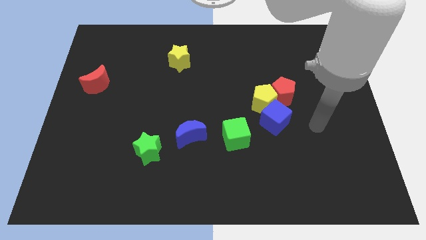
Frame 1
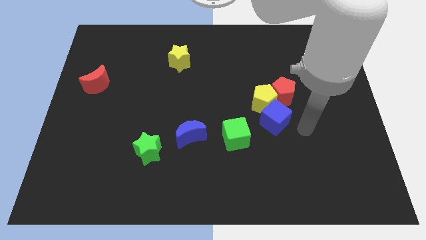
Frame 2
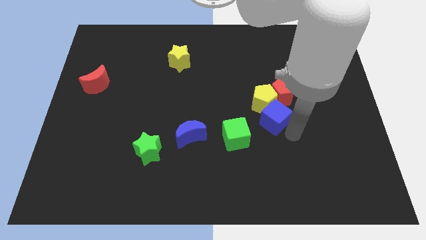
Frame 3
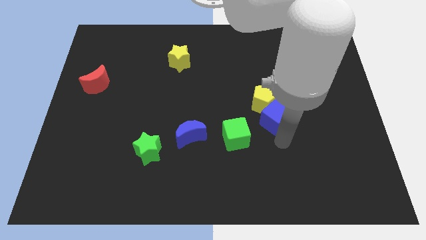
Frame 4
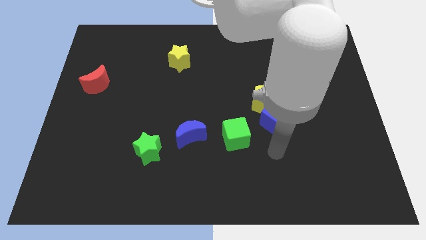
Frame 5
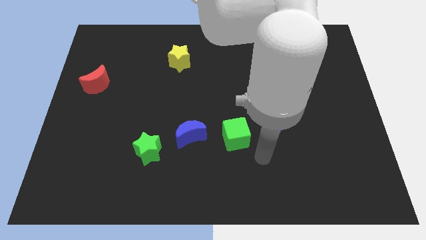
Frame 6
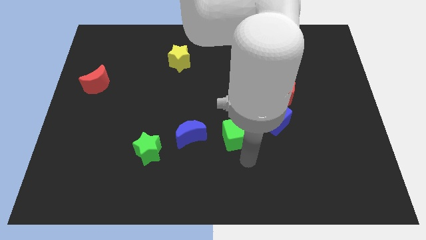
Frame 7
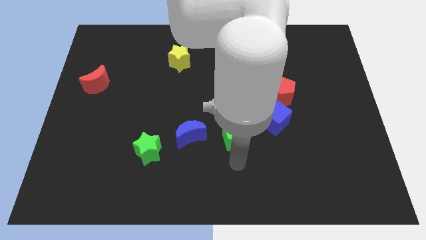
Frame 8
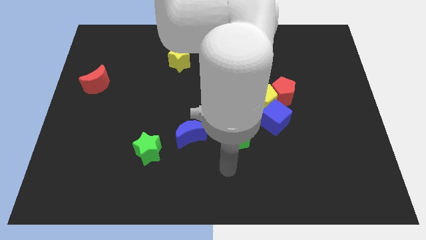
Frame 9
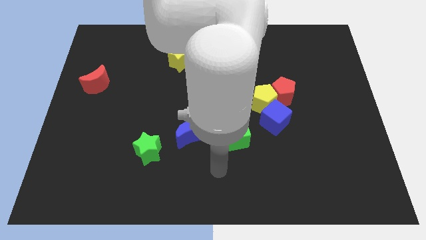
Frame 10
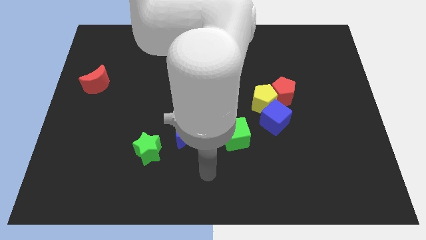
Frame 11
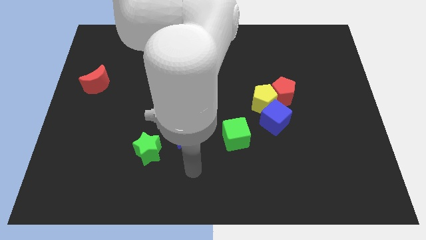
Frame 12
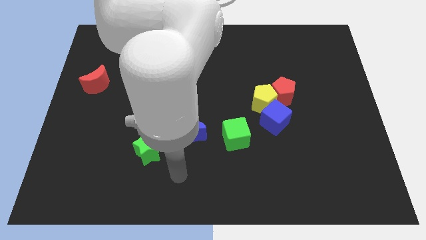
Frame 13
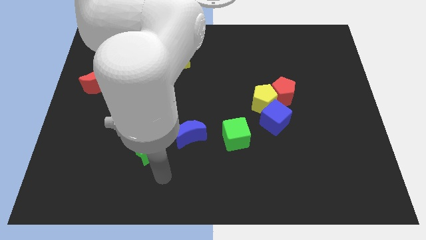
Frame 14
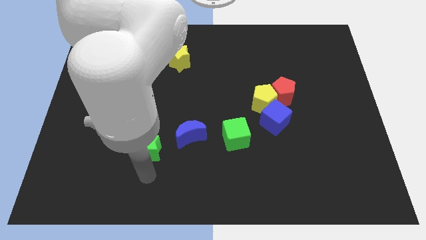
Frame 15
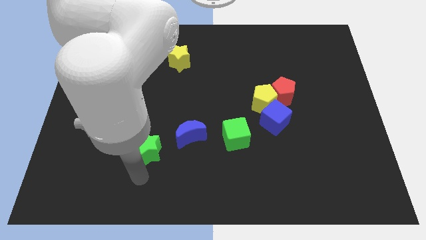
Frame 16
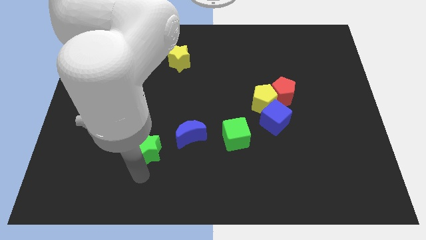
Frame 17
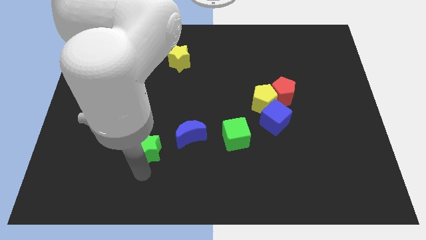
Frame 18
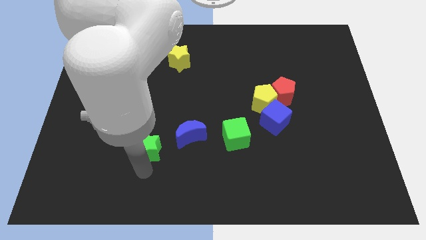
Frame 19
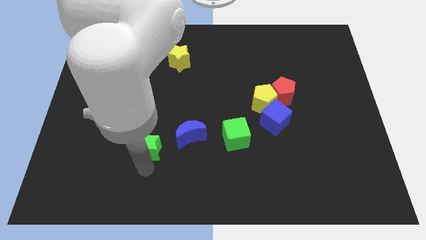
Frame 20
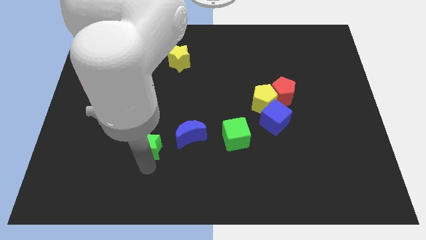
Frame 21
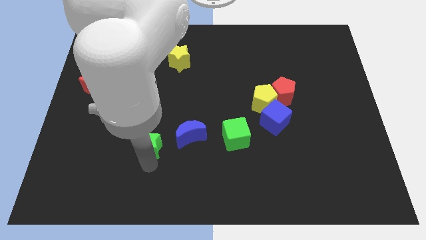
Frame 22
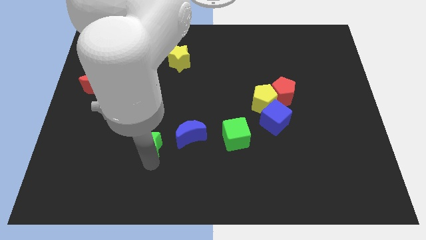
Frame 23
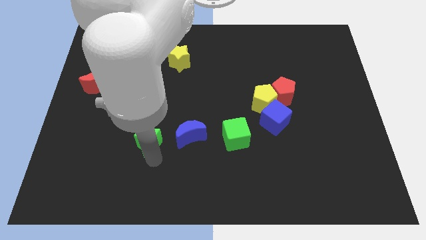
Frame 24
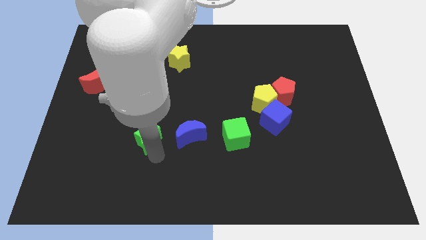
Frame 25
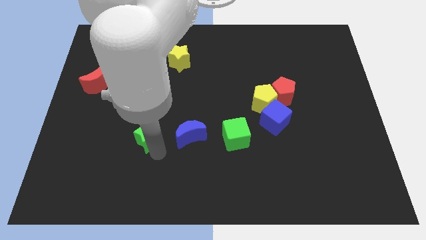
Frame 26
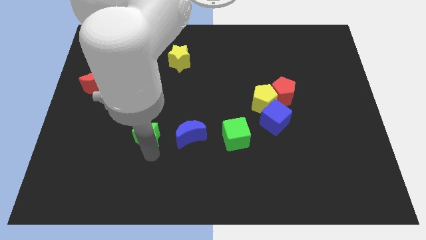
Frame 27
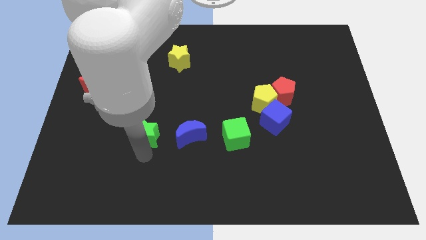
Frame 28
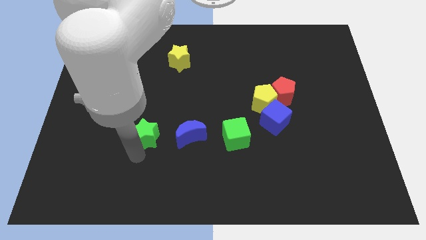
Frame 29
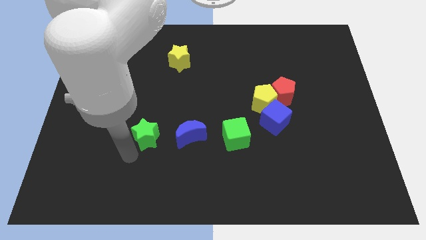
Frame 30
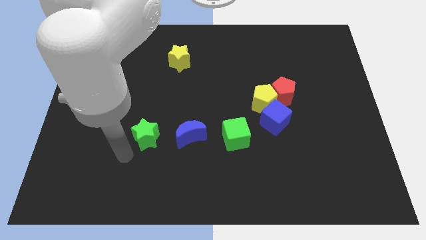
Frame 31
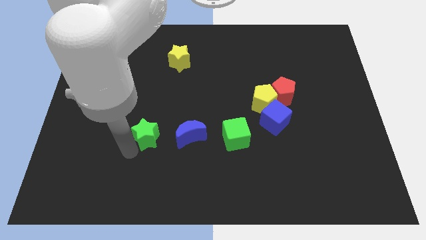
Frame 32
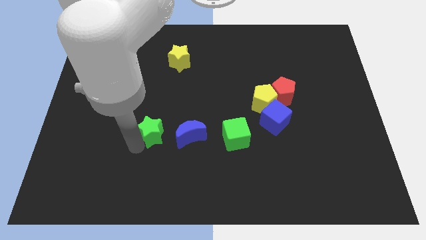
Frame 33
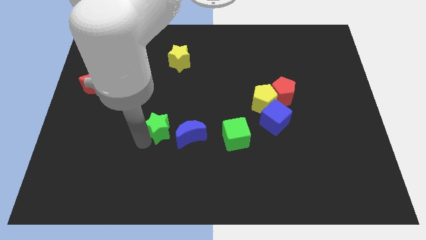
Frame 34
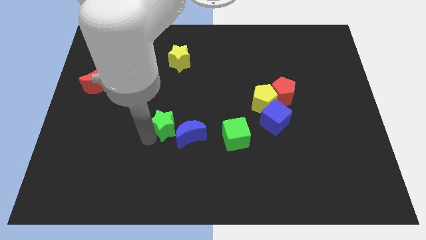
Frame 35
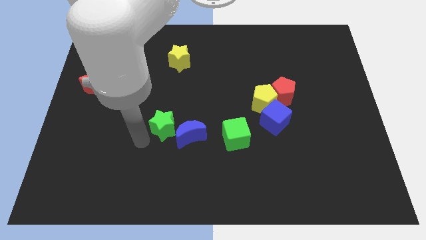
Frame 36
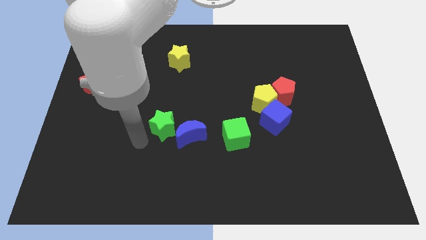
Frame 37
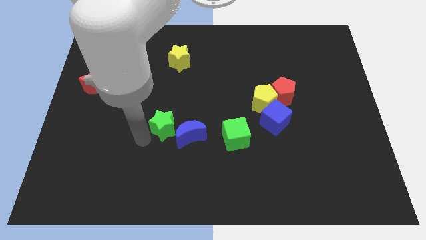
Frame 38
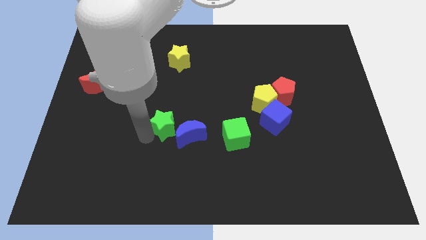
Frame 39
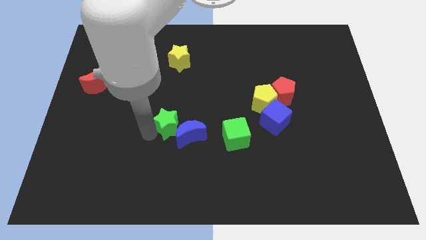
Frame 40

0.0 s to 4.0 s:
slightly slide the green star upwards and then to the right

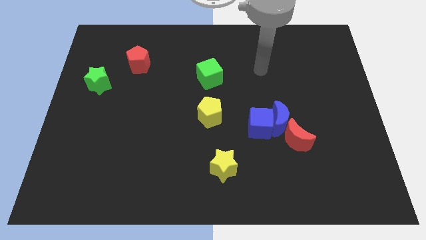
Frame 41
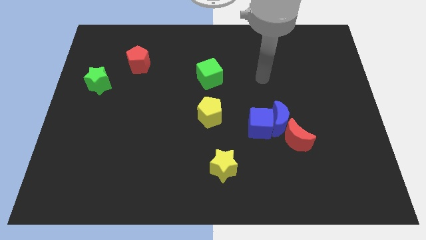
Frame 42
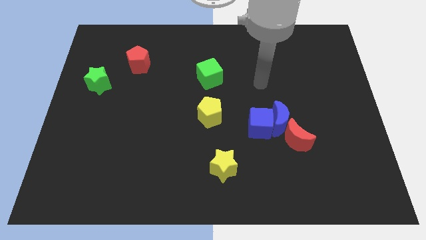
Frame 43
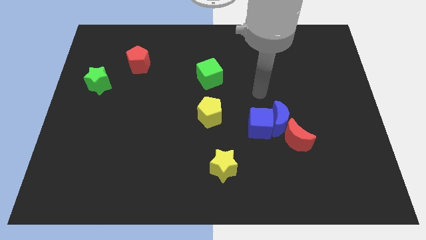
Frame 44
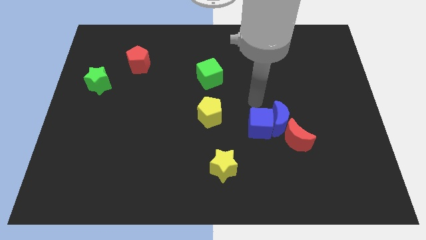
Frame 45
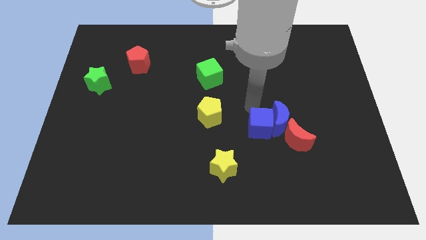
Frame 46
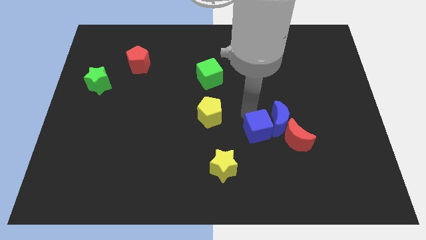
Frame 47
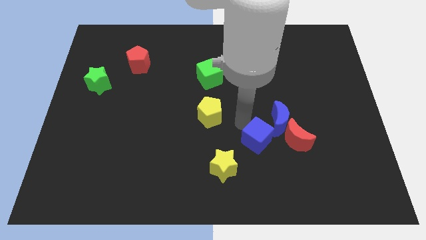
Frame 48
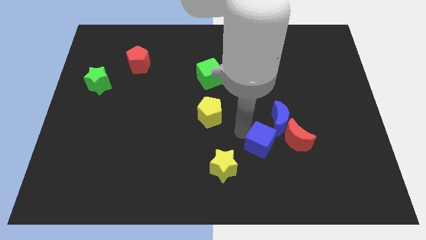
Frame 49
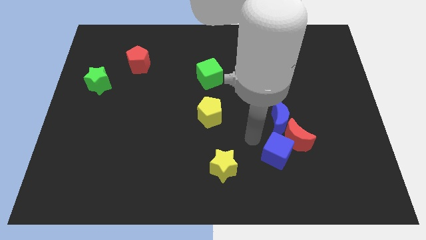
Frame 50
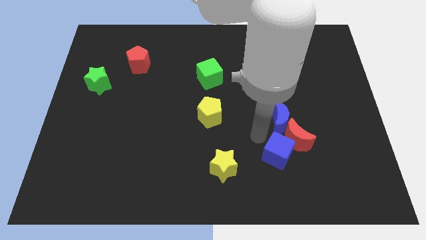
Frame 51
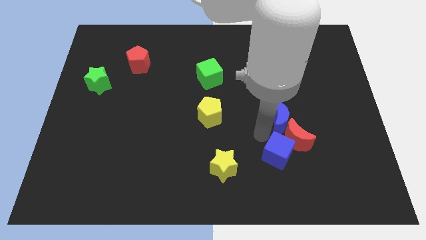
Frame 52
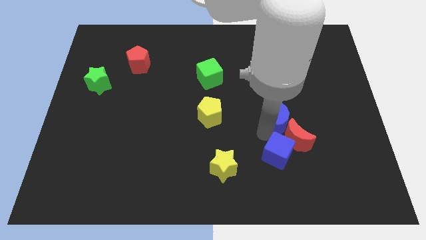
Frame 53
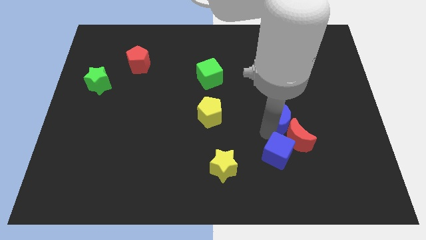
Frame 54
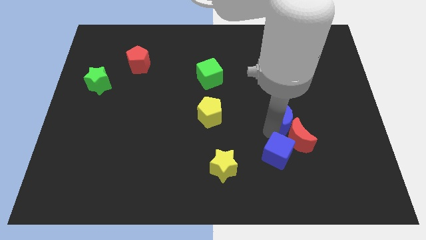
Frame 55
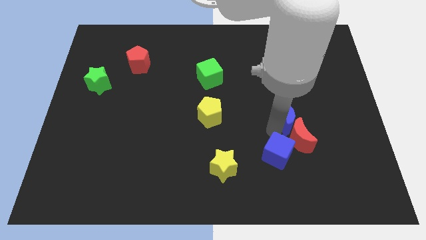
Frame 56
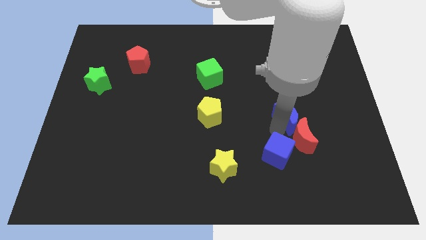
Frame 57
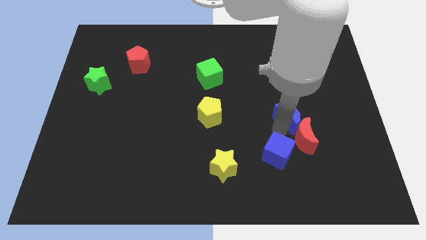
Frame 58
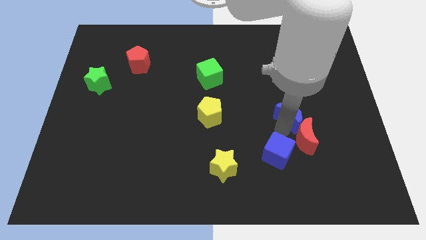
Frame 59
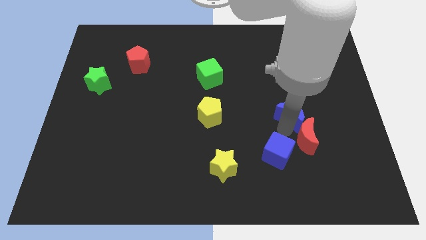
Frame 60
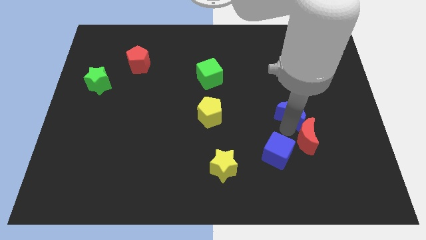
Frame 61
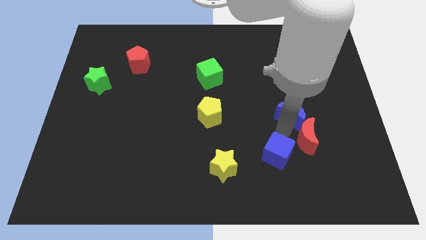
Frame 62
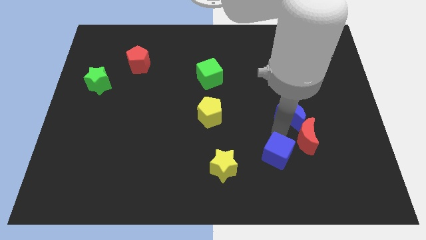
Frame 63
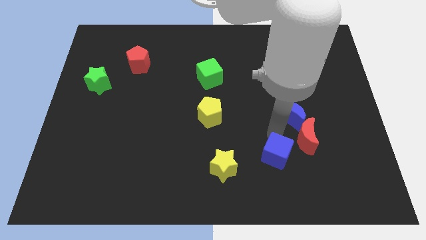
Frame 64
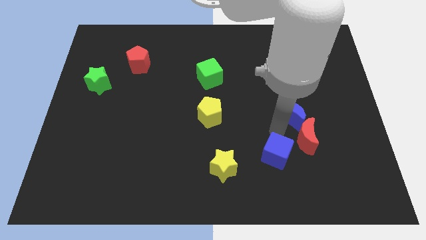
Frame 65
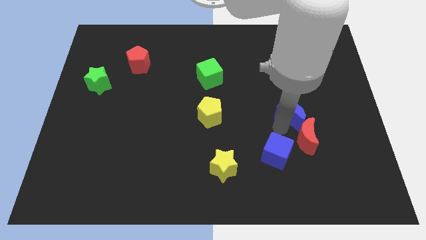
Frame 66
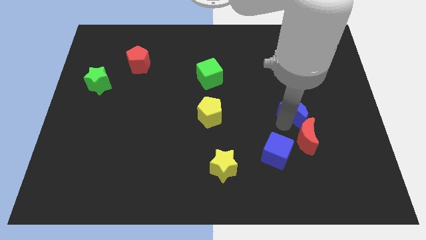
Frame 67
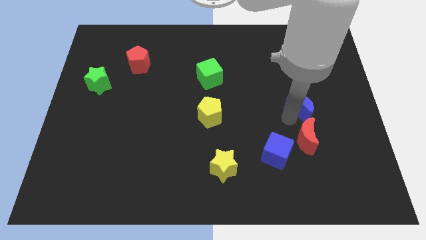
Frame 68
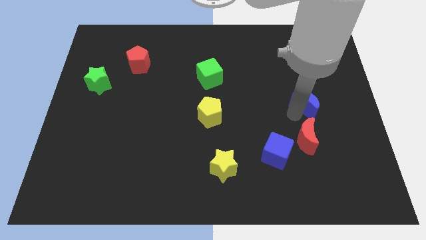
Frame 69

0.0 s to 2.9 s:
slightly push the blue moon upwards and to the right diagonally

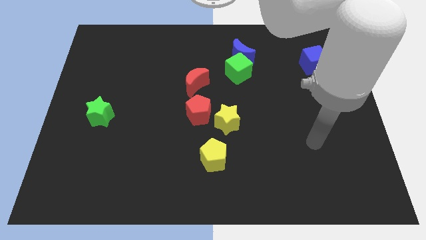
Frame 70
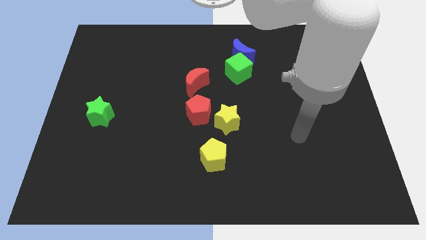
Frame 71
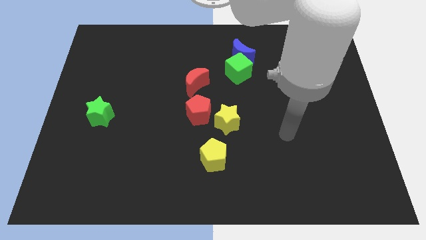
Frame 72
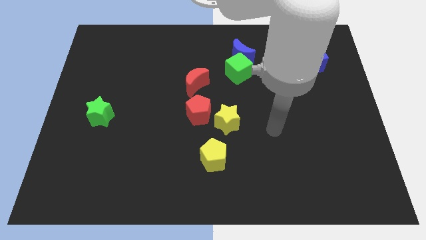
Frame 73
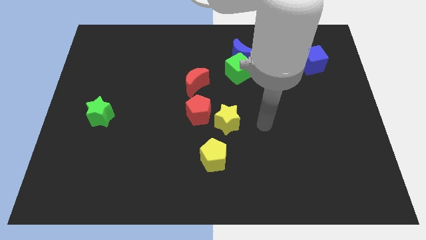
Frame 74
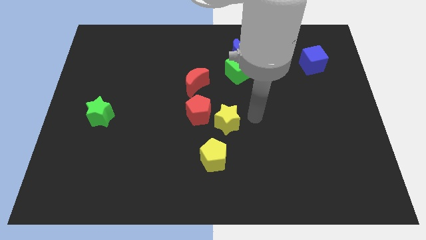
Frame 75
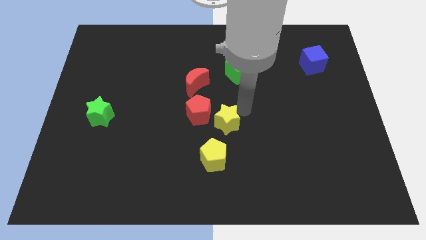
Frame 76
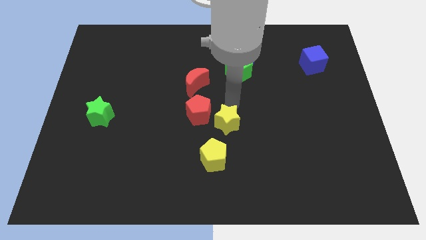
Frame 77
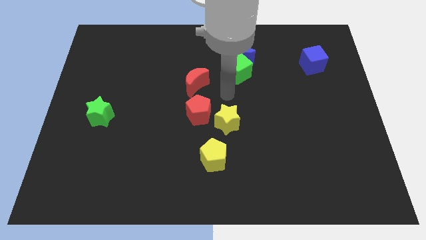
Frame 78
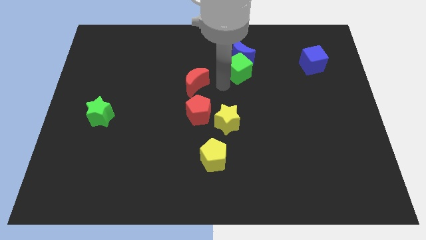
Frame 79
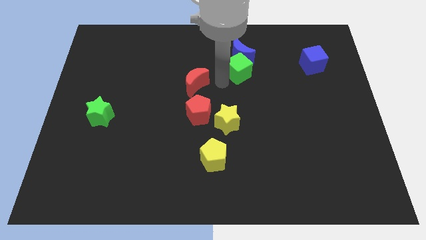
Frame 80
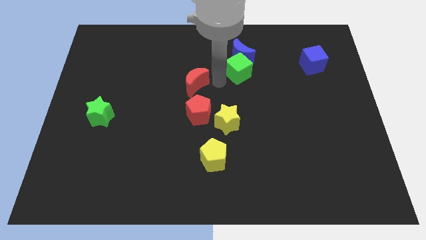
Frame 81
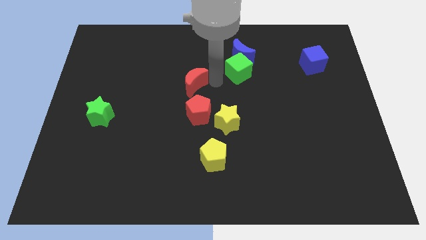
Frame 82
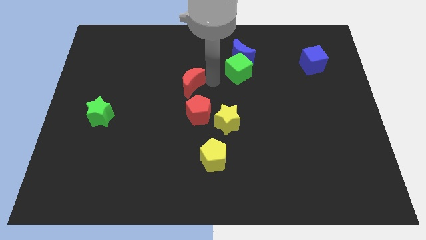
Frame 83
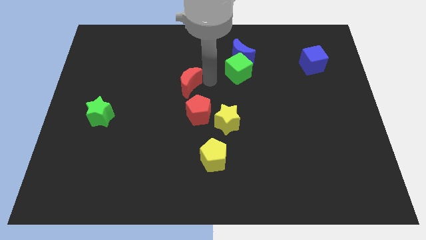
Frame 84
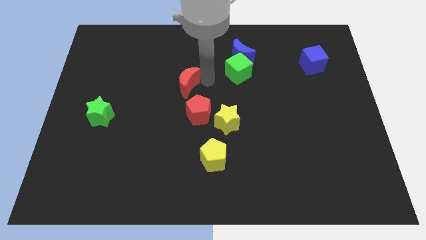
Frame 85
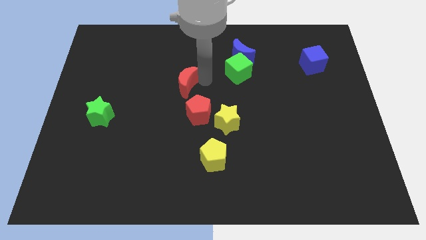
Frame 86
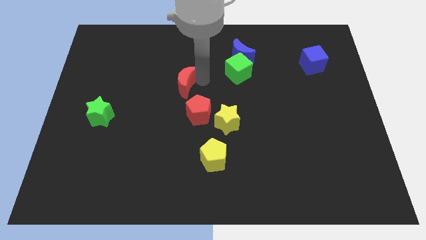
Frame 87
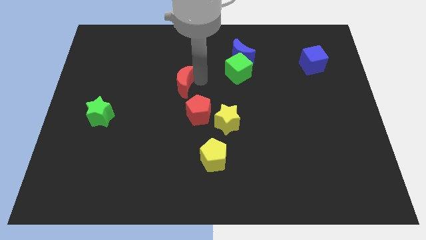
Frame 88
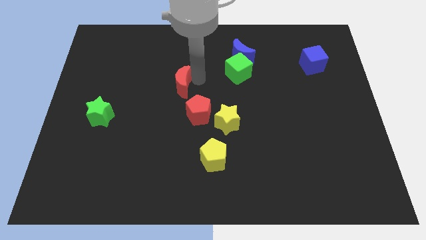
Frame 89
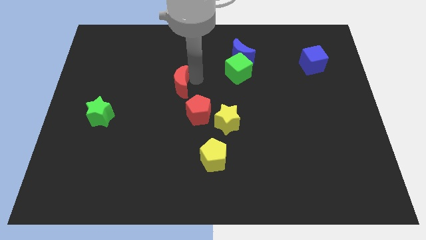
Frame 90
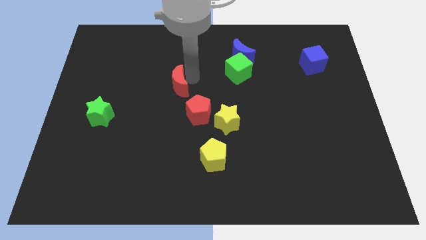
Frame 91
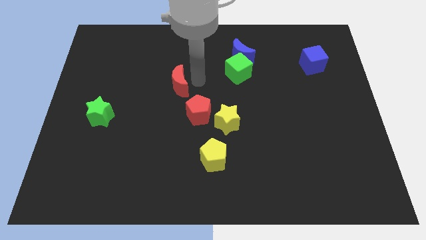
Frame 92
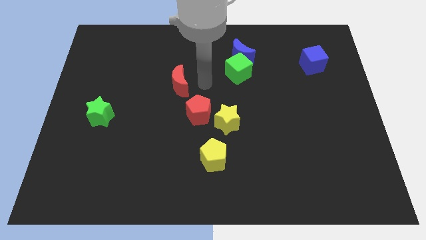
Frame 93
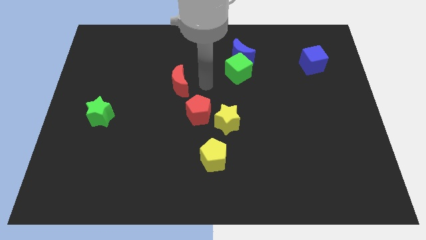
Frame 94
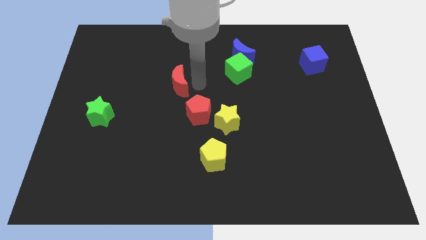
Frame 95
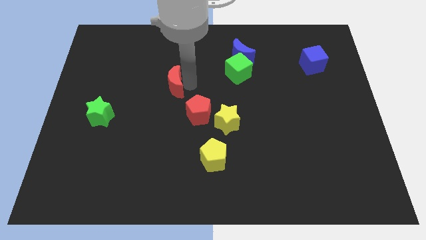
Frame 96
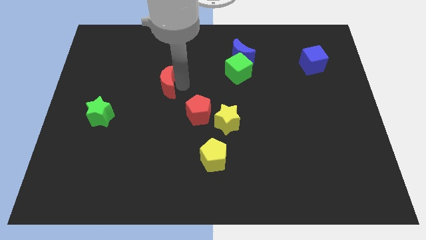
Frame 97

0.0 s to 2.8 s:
move the red moon to the left a little
